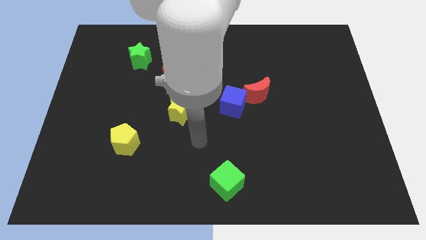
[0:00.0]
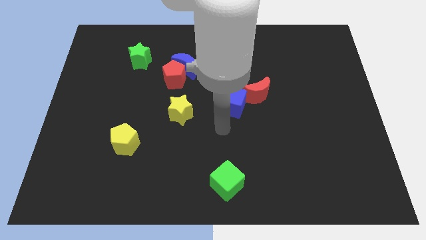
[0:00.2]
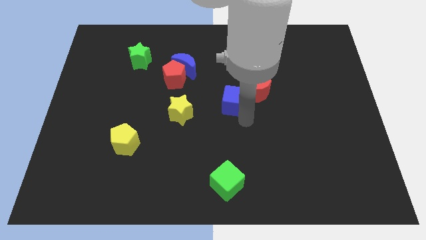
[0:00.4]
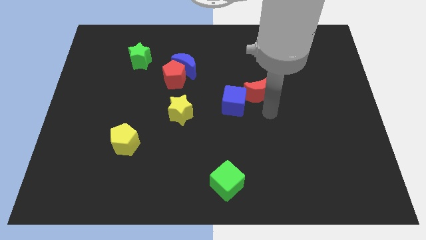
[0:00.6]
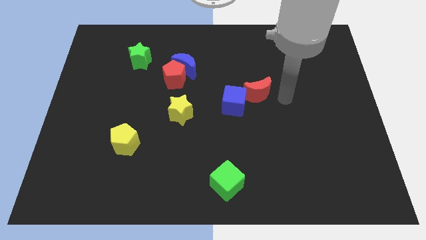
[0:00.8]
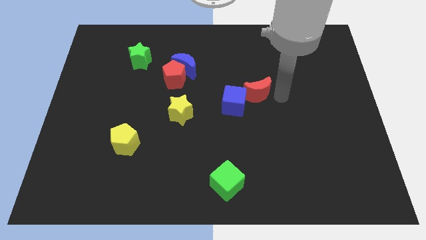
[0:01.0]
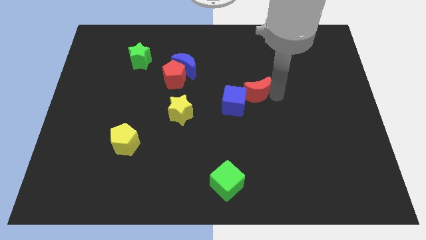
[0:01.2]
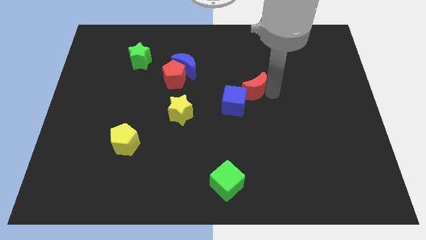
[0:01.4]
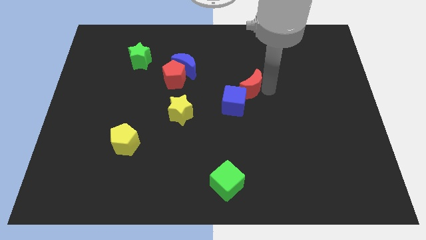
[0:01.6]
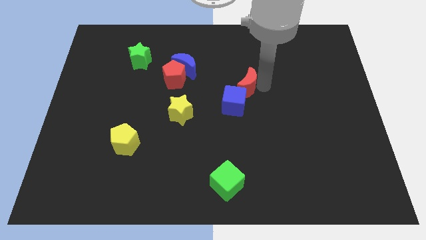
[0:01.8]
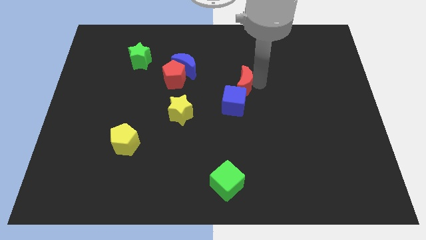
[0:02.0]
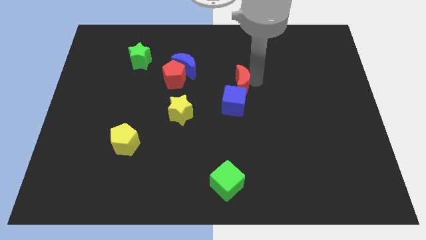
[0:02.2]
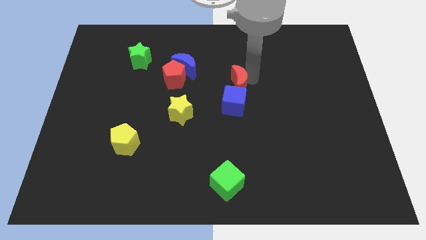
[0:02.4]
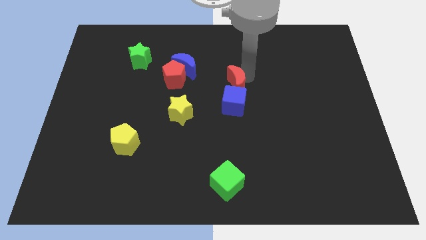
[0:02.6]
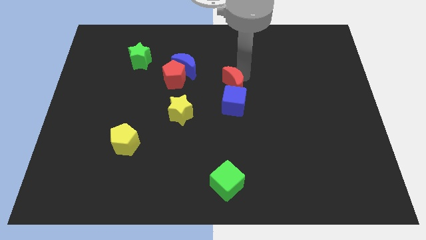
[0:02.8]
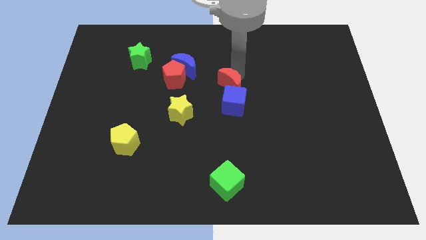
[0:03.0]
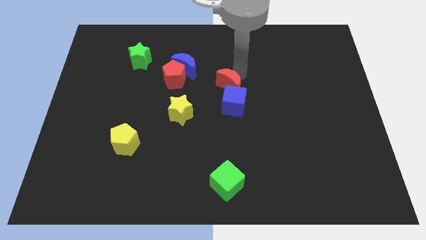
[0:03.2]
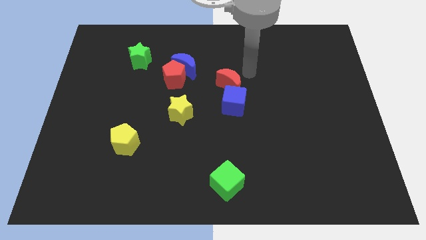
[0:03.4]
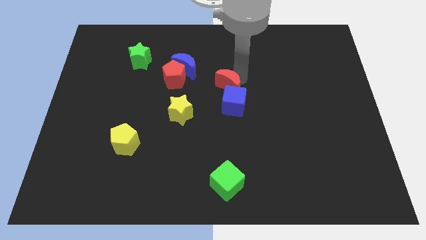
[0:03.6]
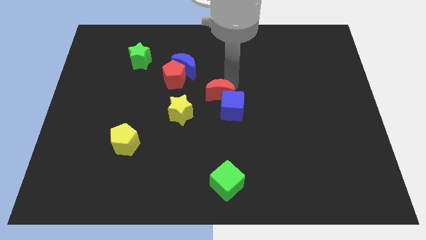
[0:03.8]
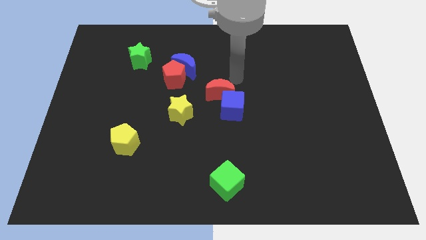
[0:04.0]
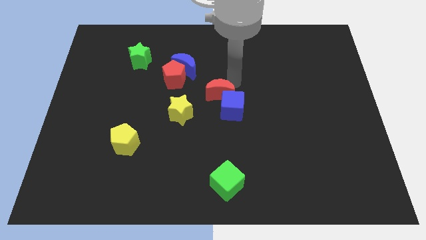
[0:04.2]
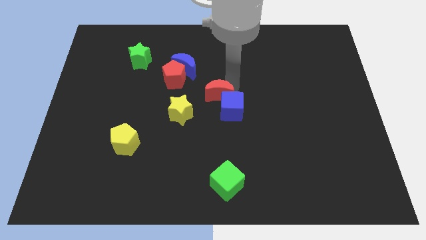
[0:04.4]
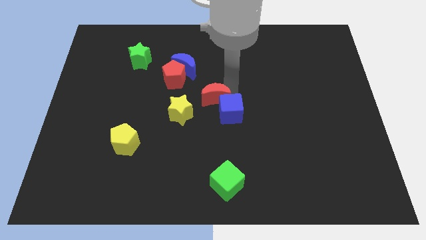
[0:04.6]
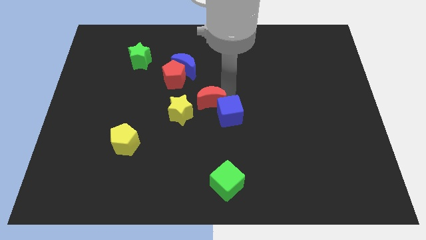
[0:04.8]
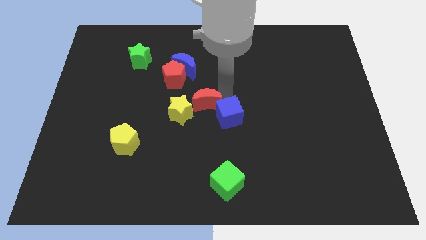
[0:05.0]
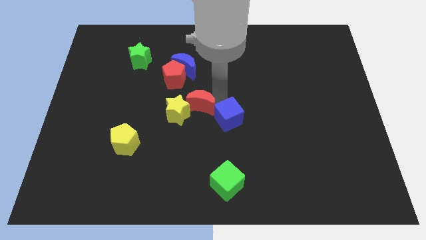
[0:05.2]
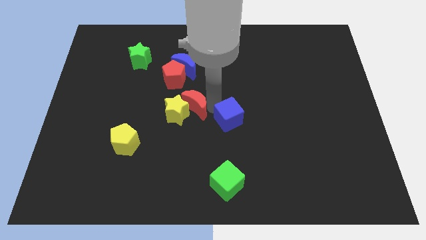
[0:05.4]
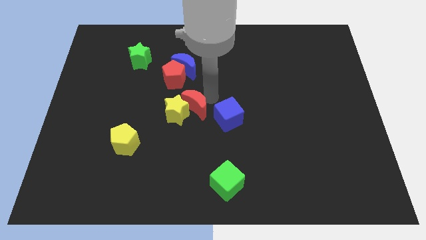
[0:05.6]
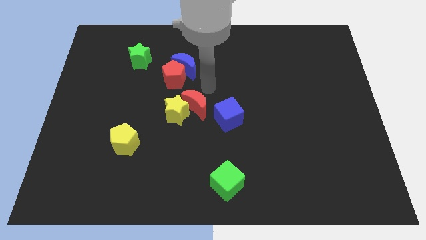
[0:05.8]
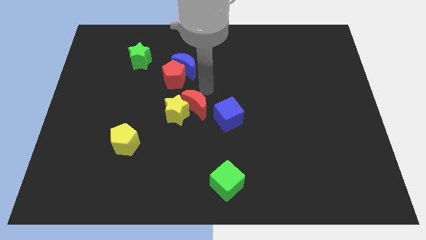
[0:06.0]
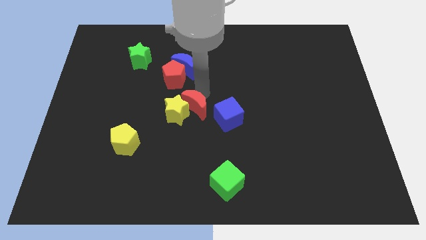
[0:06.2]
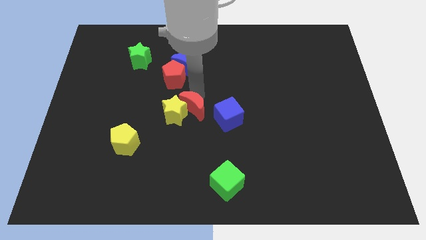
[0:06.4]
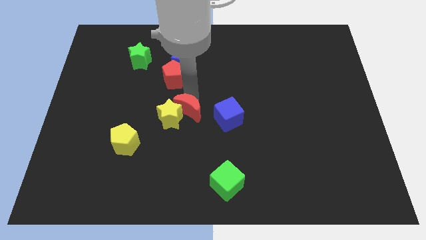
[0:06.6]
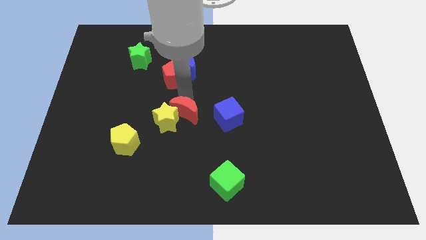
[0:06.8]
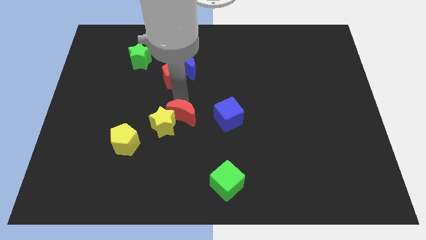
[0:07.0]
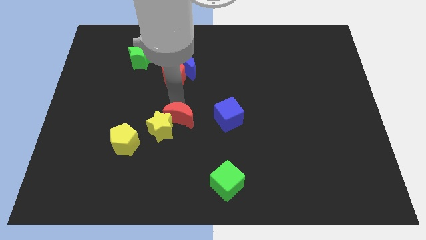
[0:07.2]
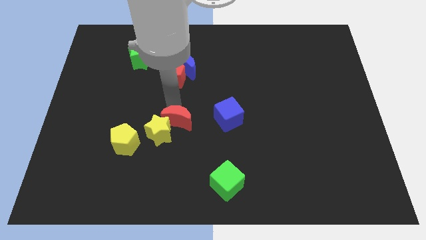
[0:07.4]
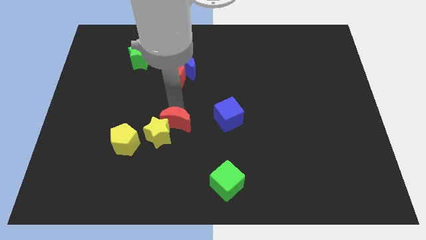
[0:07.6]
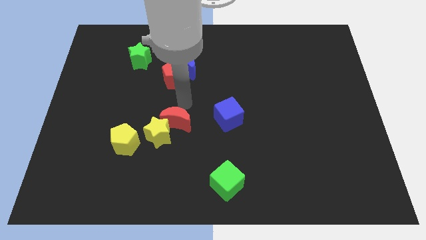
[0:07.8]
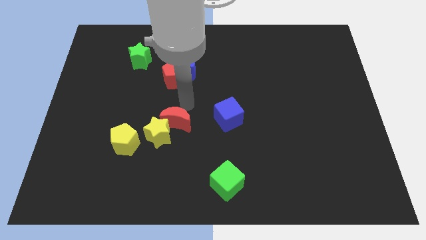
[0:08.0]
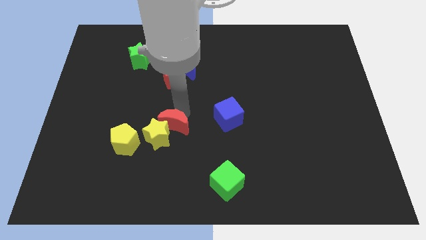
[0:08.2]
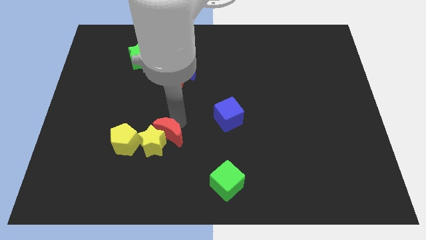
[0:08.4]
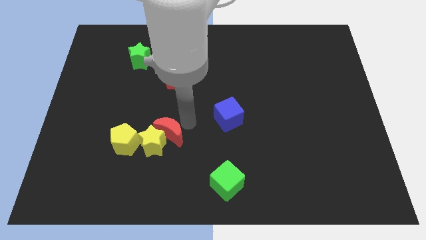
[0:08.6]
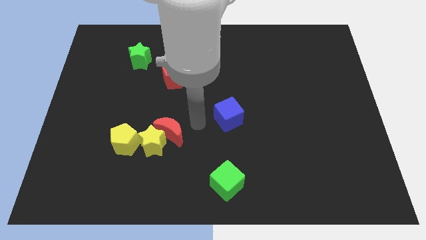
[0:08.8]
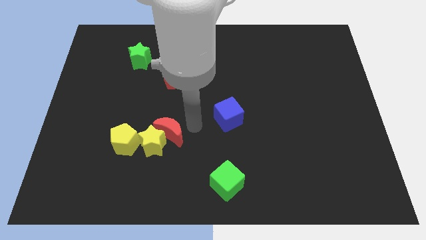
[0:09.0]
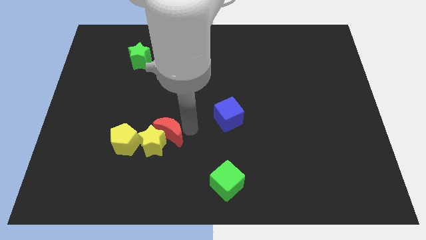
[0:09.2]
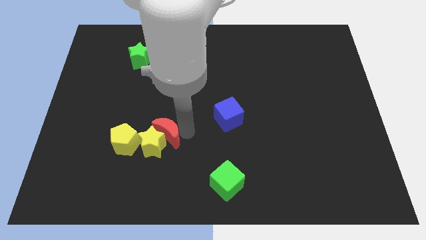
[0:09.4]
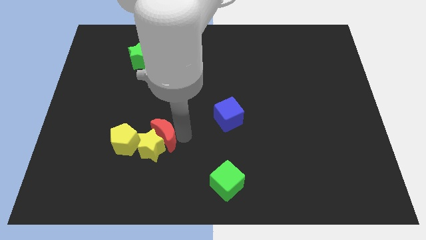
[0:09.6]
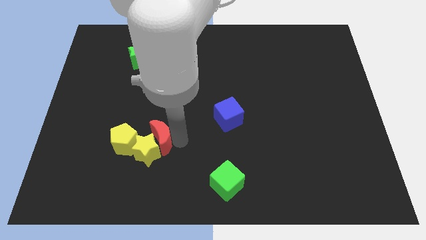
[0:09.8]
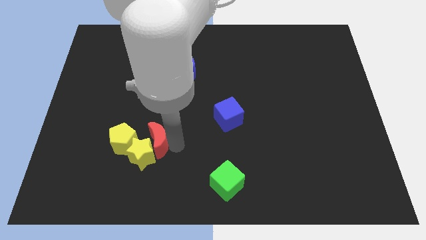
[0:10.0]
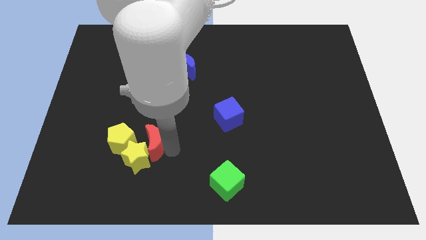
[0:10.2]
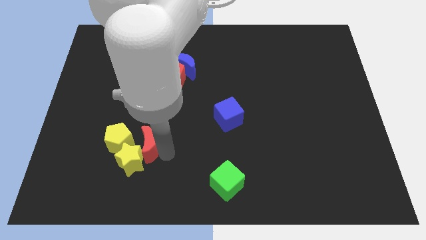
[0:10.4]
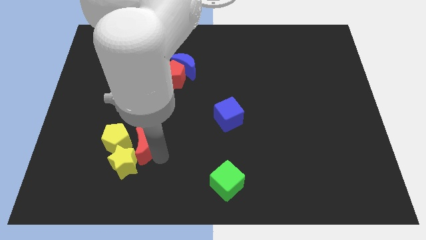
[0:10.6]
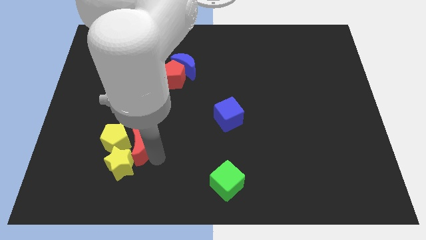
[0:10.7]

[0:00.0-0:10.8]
slide the red moon towards the yellow pentagon

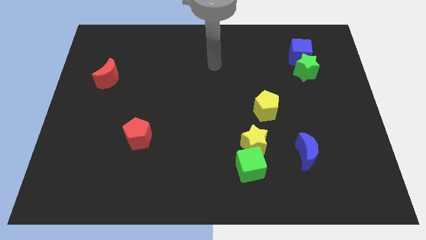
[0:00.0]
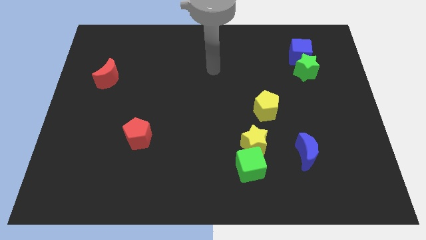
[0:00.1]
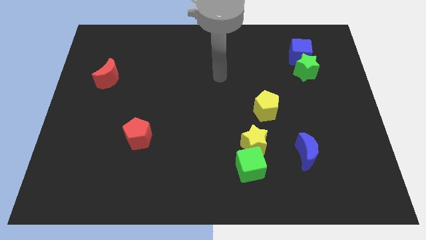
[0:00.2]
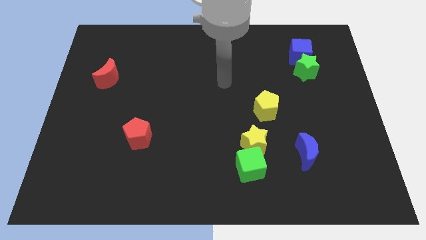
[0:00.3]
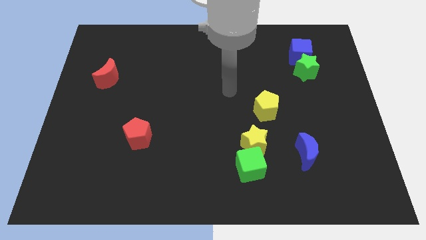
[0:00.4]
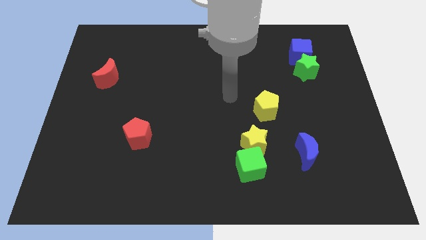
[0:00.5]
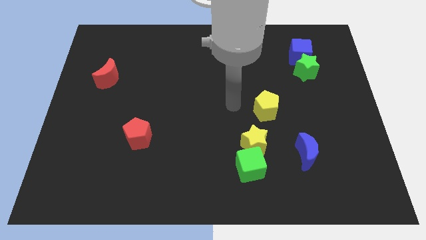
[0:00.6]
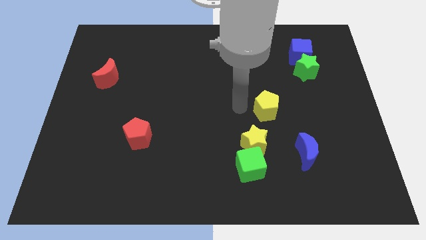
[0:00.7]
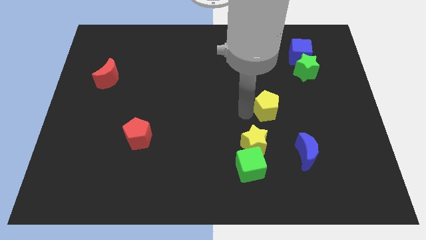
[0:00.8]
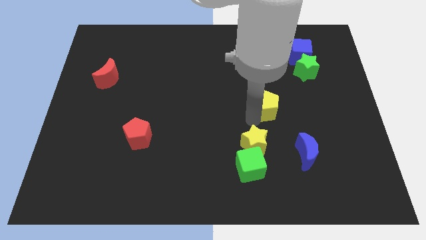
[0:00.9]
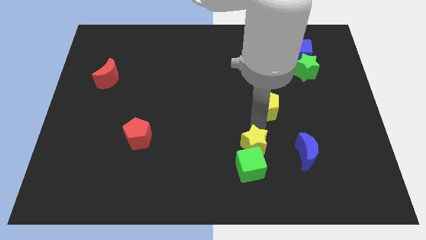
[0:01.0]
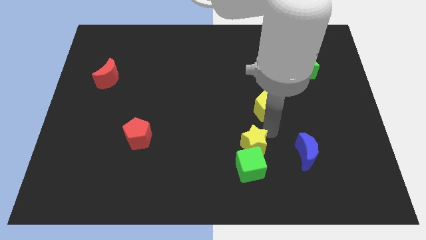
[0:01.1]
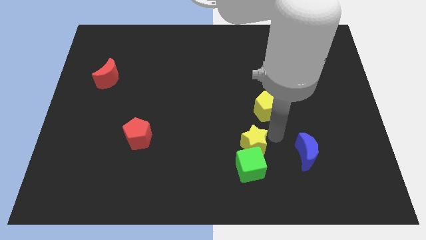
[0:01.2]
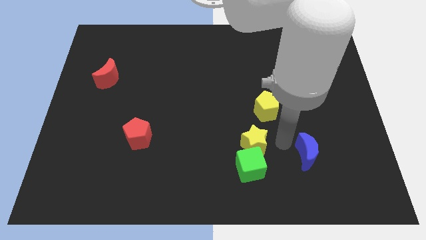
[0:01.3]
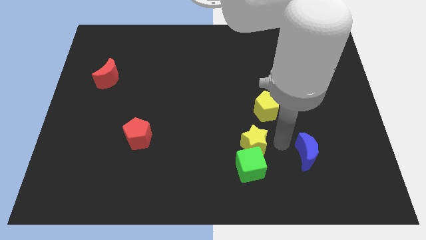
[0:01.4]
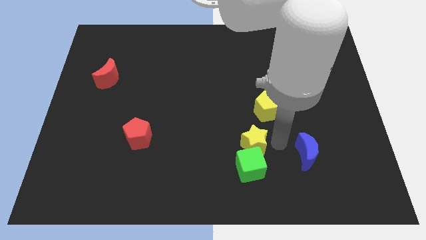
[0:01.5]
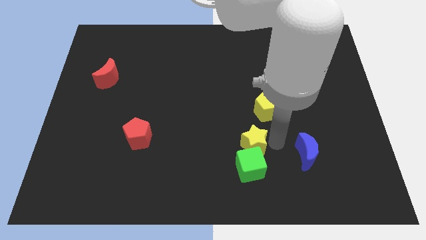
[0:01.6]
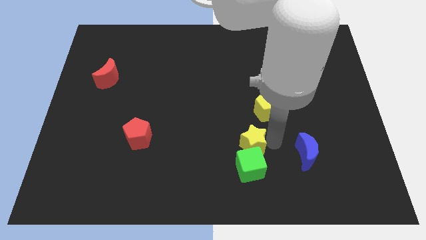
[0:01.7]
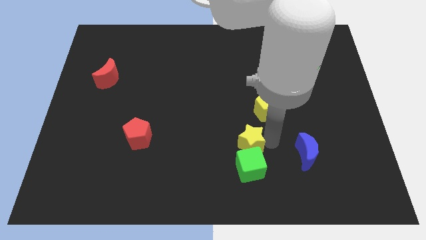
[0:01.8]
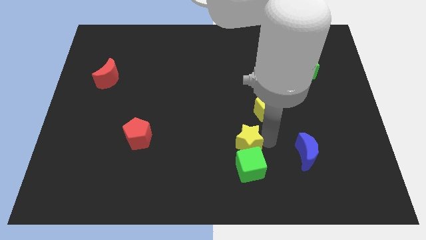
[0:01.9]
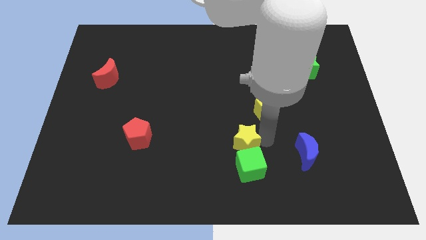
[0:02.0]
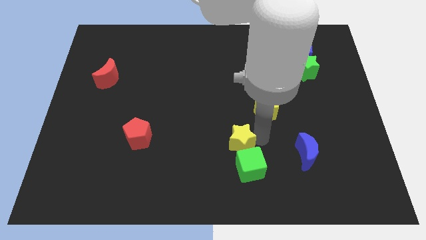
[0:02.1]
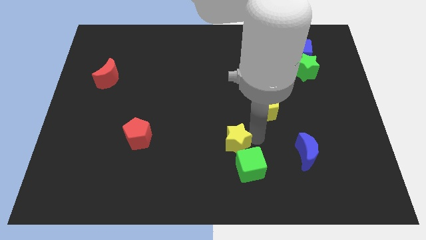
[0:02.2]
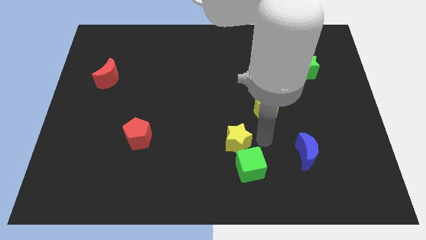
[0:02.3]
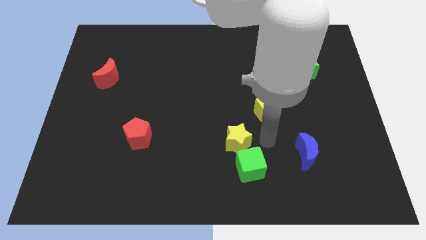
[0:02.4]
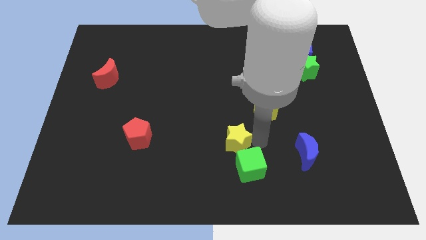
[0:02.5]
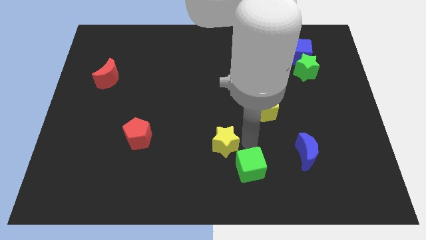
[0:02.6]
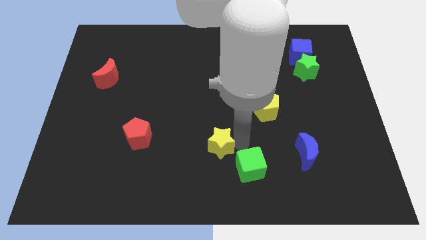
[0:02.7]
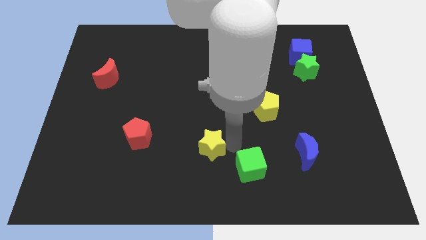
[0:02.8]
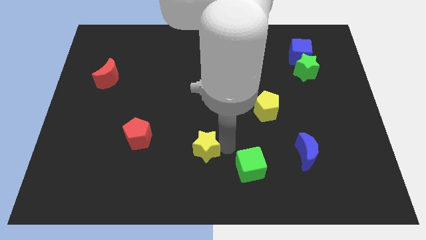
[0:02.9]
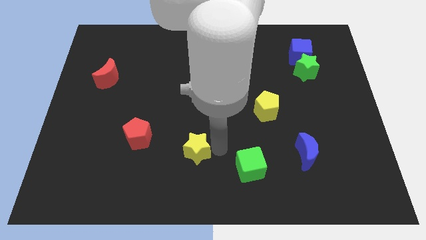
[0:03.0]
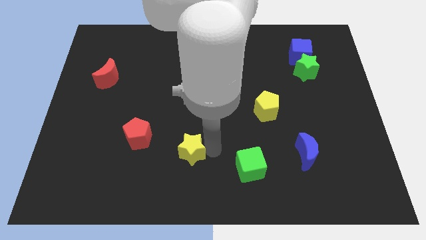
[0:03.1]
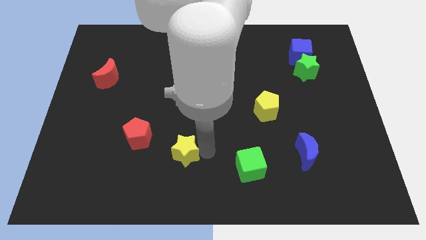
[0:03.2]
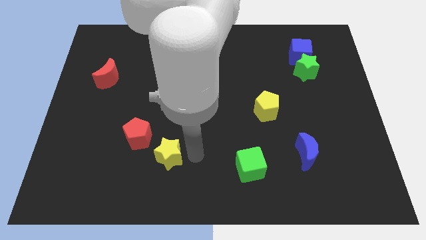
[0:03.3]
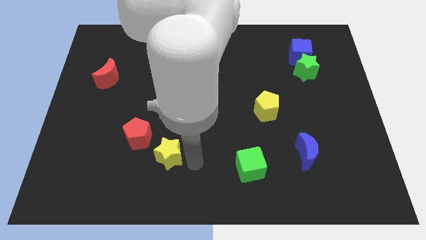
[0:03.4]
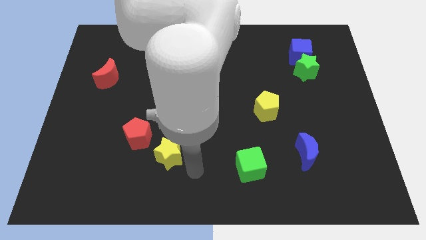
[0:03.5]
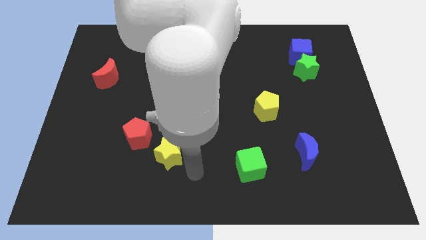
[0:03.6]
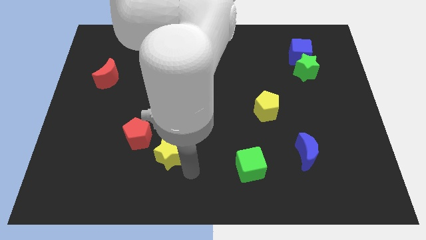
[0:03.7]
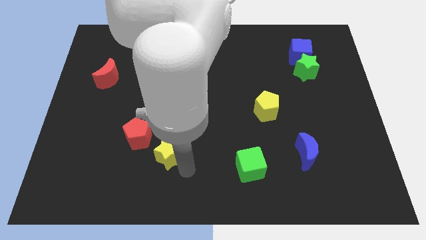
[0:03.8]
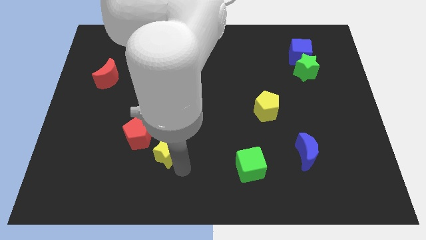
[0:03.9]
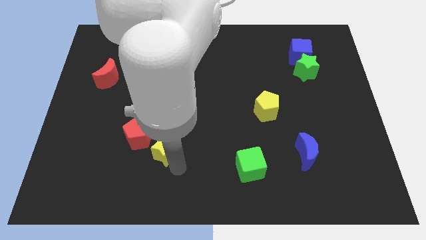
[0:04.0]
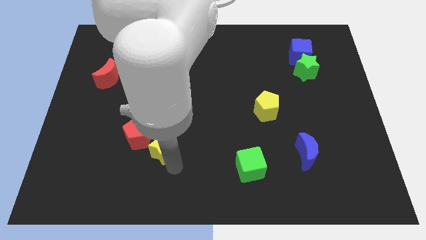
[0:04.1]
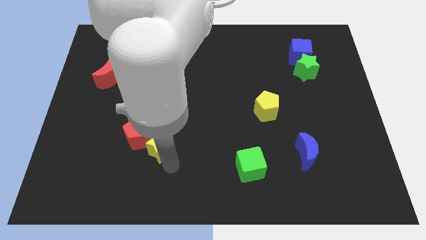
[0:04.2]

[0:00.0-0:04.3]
push the yellow star next to the red pentagon
